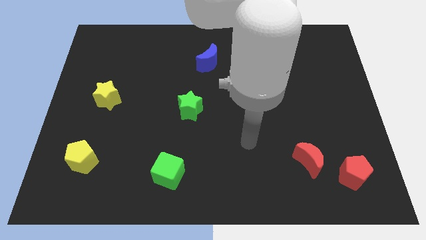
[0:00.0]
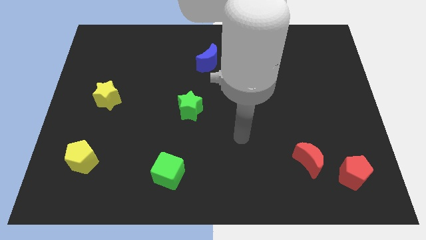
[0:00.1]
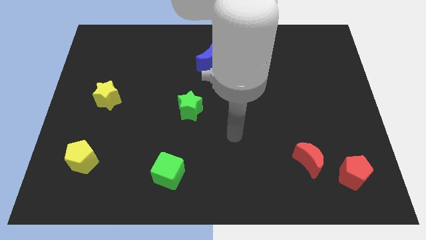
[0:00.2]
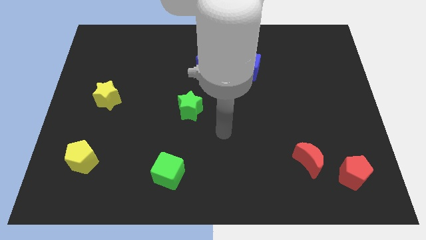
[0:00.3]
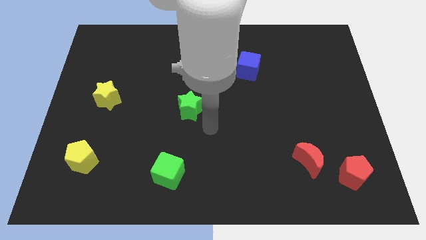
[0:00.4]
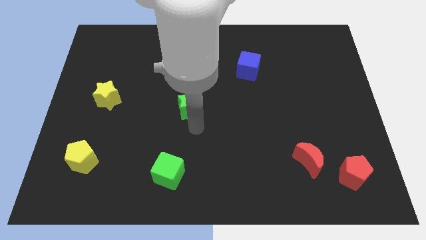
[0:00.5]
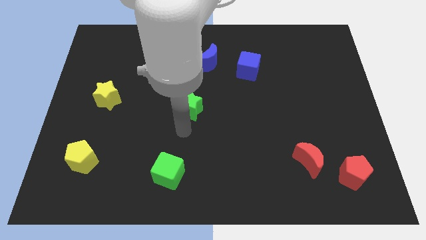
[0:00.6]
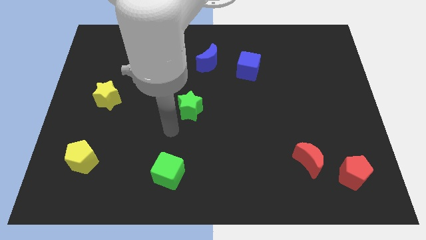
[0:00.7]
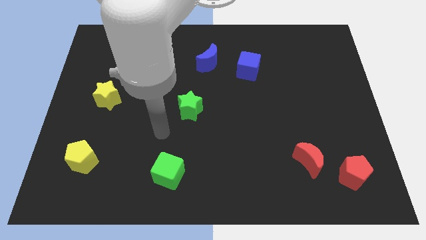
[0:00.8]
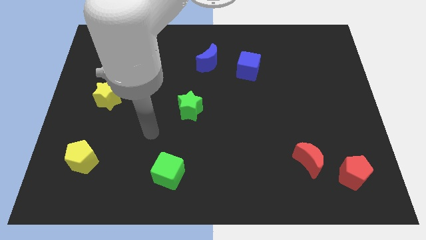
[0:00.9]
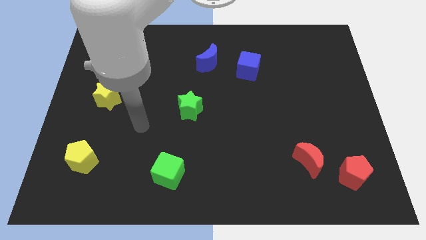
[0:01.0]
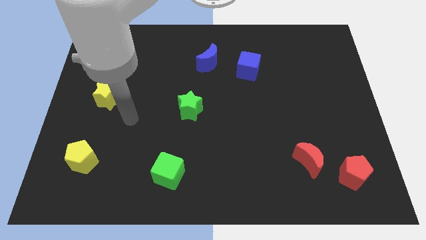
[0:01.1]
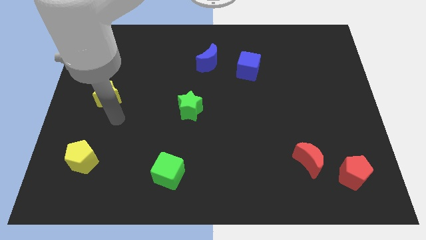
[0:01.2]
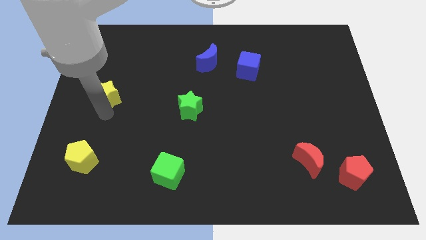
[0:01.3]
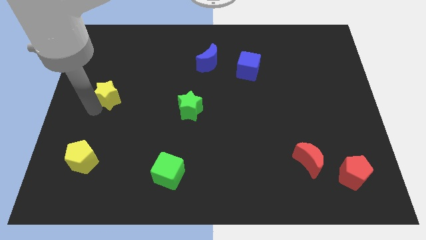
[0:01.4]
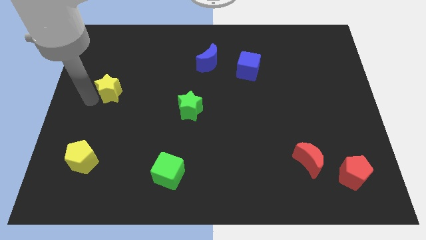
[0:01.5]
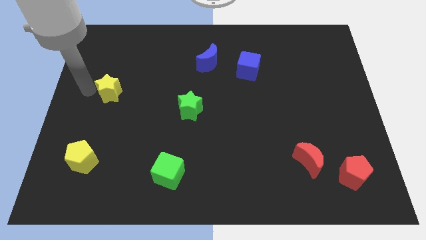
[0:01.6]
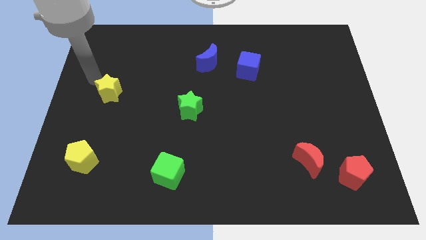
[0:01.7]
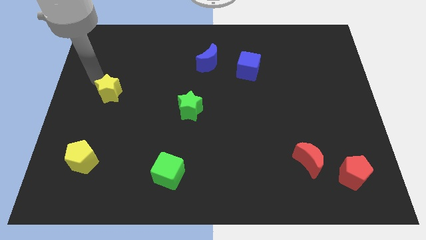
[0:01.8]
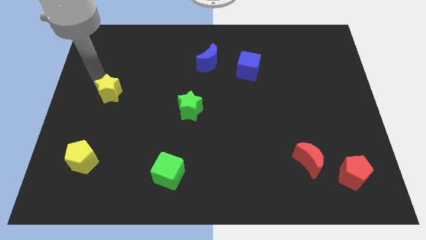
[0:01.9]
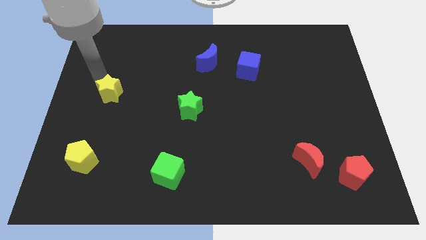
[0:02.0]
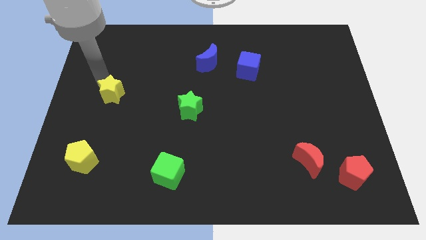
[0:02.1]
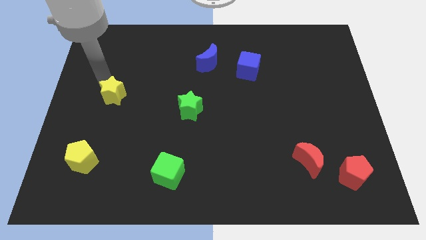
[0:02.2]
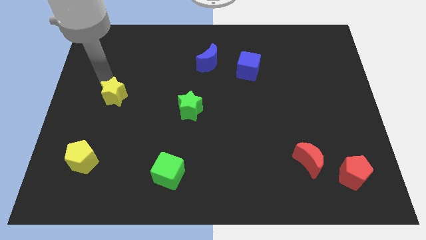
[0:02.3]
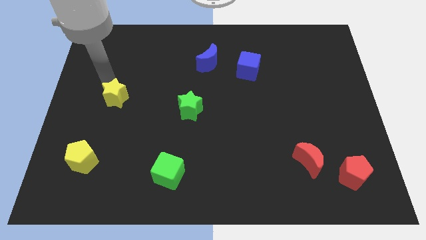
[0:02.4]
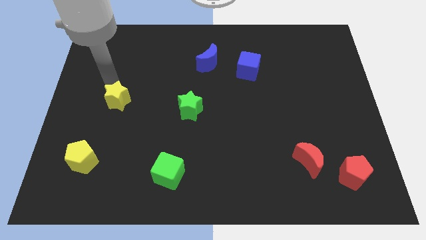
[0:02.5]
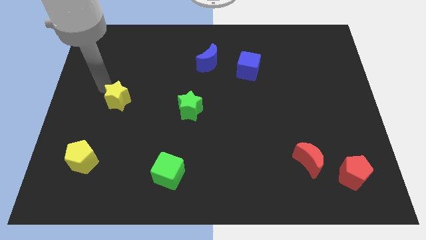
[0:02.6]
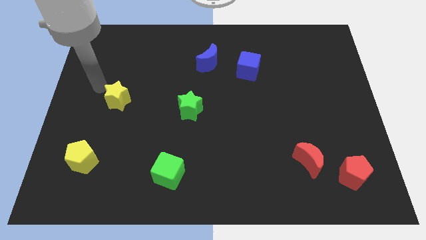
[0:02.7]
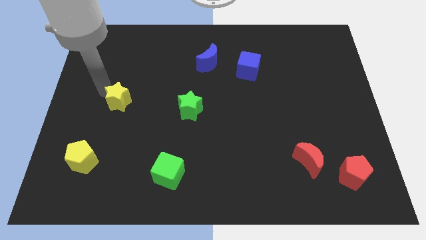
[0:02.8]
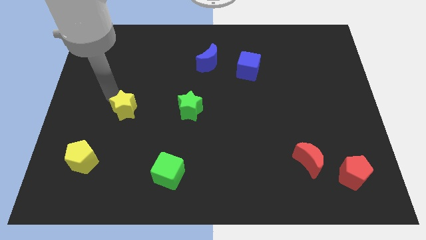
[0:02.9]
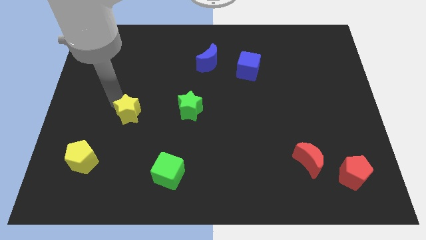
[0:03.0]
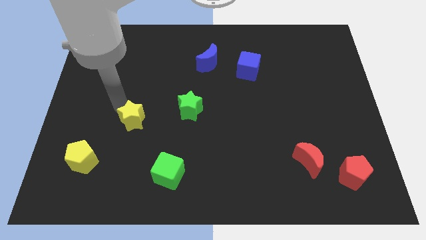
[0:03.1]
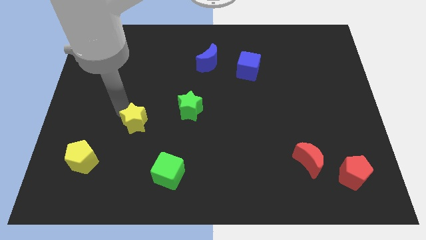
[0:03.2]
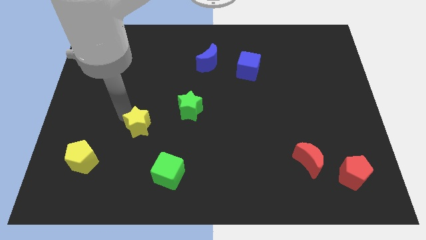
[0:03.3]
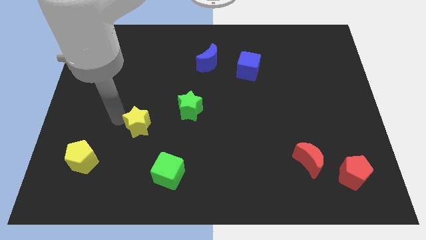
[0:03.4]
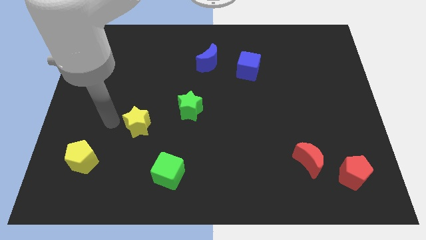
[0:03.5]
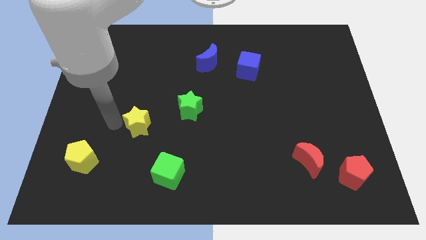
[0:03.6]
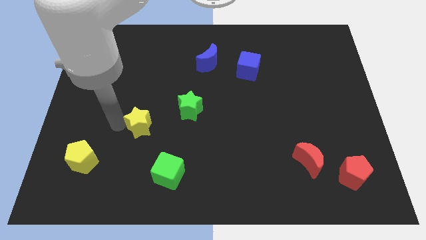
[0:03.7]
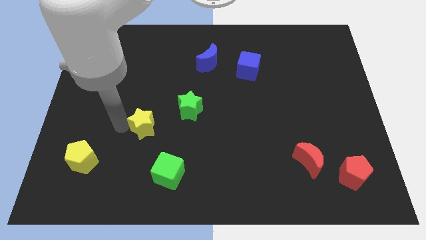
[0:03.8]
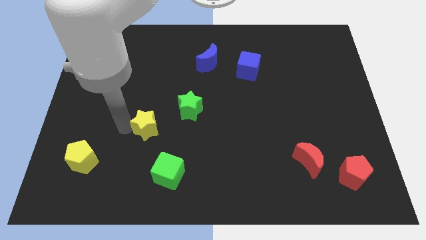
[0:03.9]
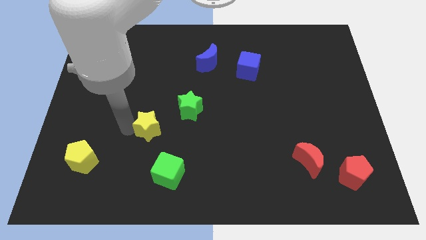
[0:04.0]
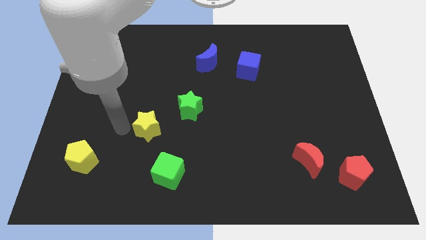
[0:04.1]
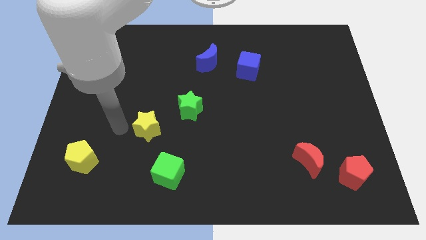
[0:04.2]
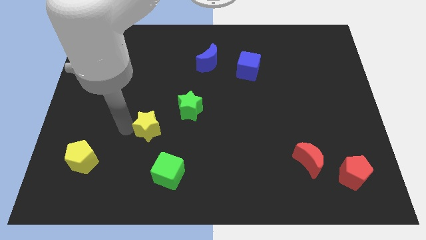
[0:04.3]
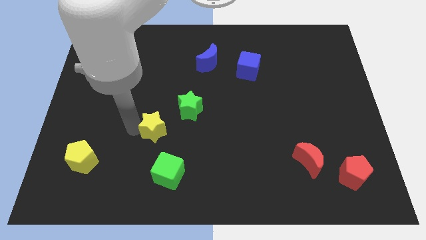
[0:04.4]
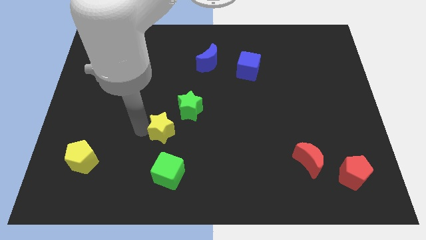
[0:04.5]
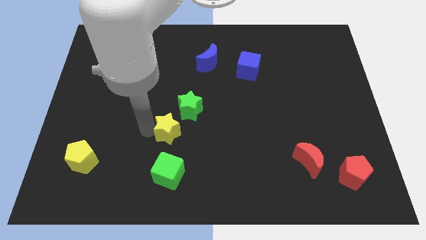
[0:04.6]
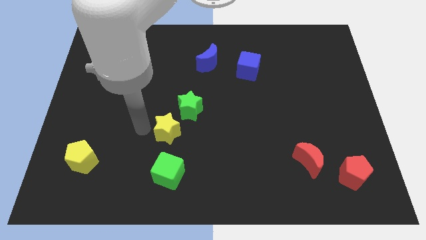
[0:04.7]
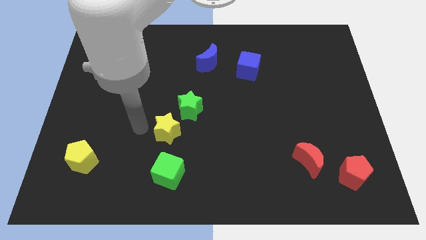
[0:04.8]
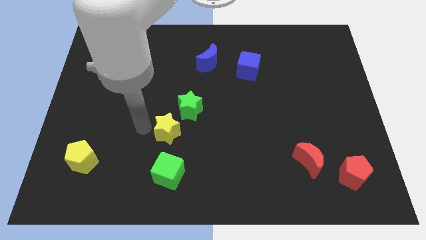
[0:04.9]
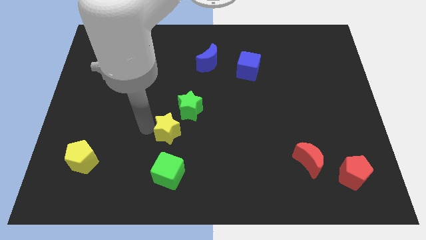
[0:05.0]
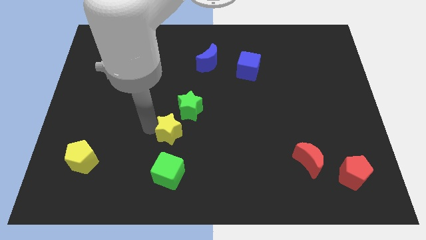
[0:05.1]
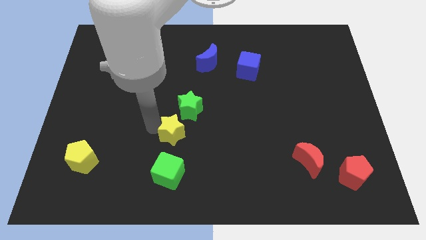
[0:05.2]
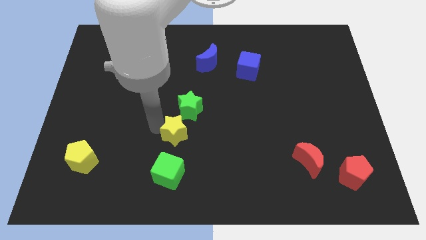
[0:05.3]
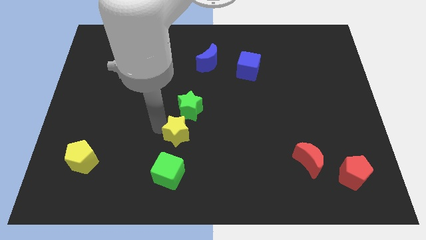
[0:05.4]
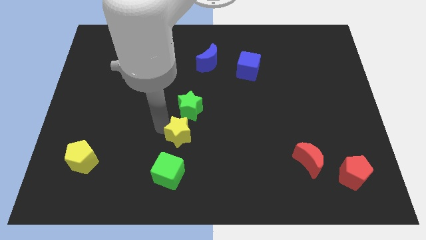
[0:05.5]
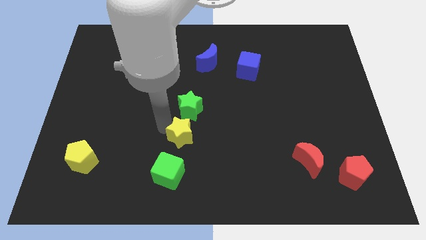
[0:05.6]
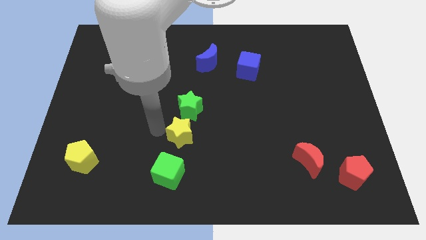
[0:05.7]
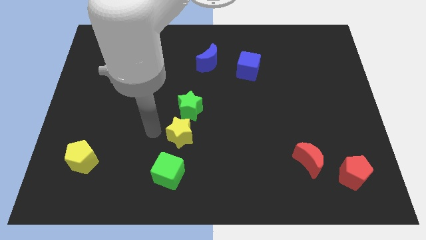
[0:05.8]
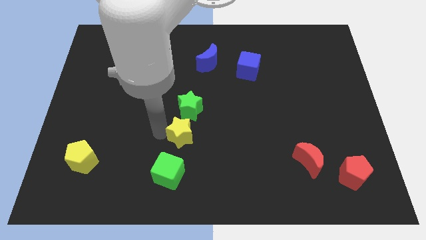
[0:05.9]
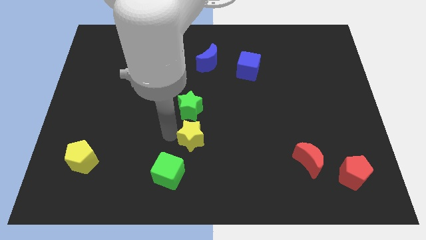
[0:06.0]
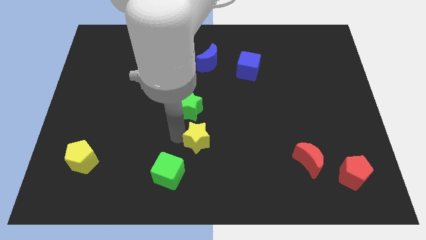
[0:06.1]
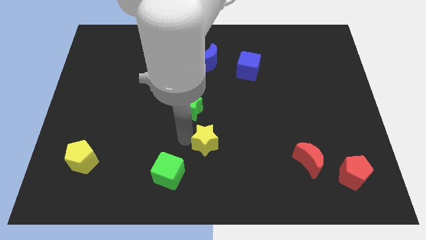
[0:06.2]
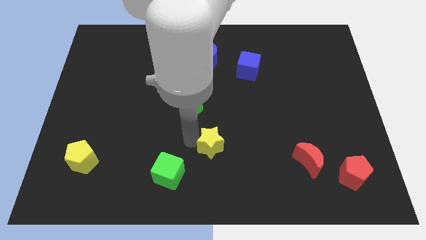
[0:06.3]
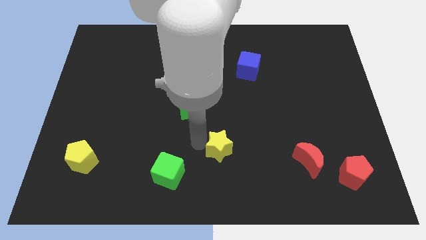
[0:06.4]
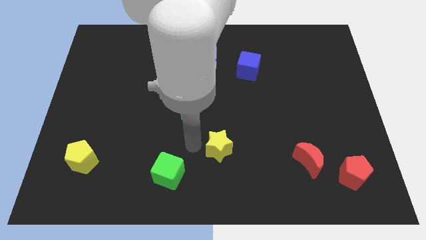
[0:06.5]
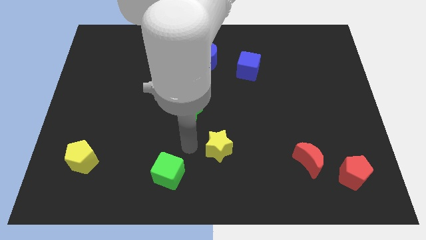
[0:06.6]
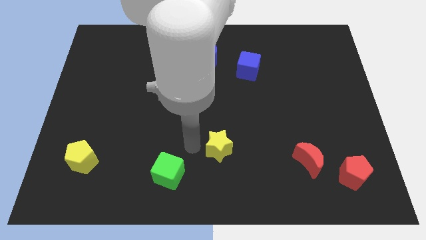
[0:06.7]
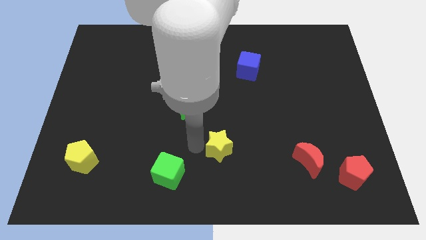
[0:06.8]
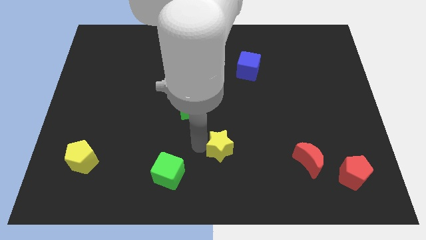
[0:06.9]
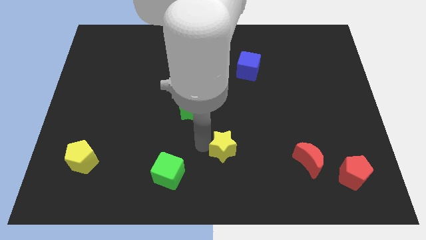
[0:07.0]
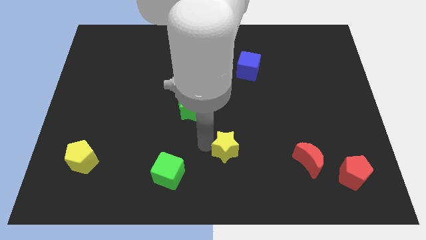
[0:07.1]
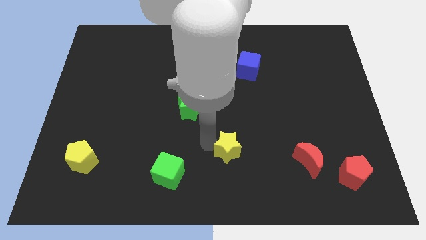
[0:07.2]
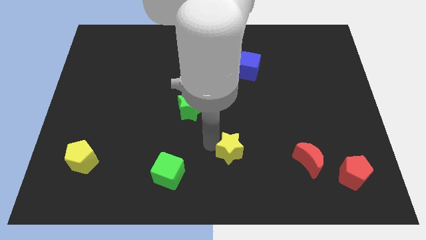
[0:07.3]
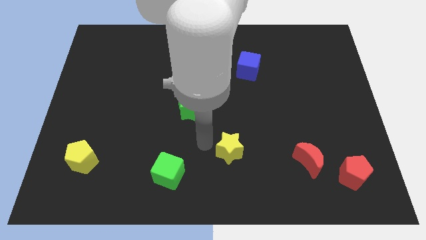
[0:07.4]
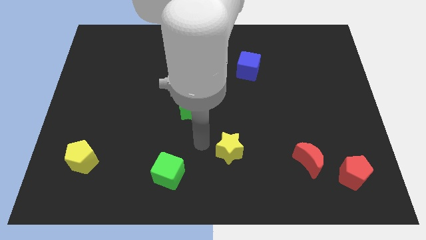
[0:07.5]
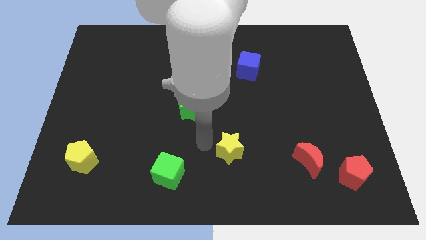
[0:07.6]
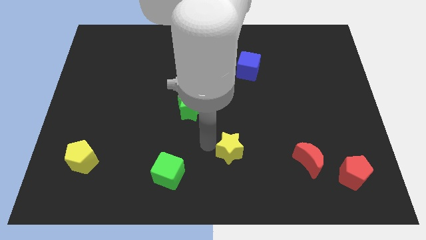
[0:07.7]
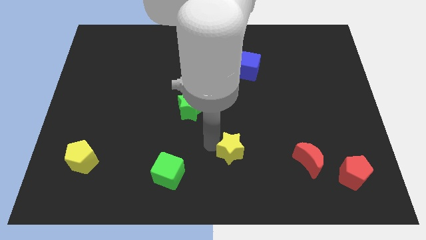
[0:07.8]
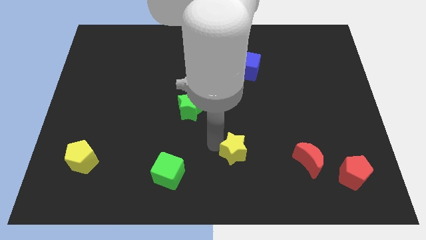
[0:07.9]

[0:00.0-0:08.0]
slide the yellow star to the left of the red moon
